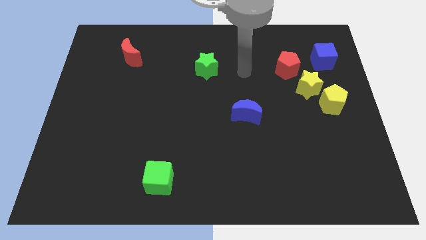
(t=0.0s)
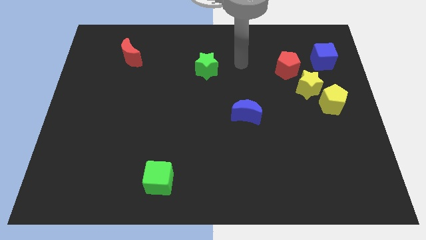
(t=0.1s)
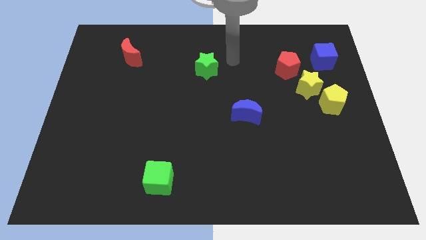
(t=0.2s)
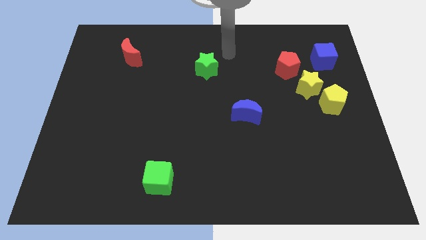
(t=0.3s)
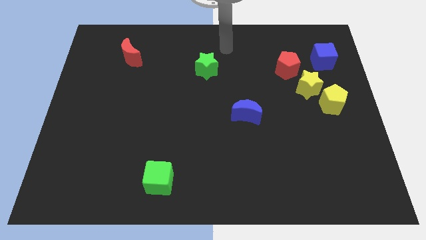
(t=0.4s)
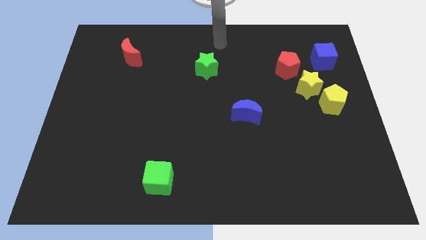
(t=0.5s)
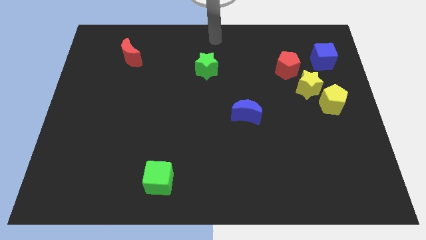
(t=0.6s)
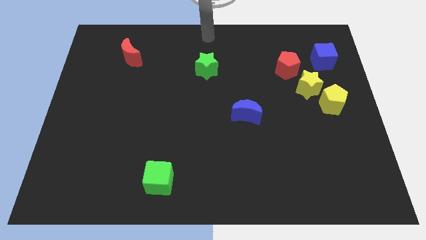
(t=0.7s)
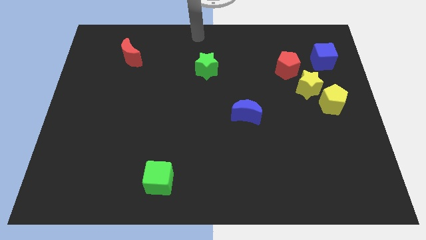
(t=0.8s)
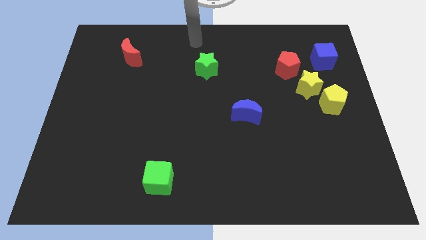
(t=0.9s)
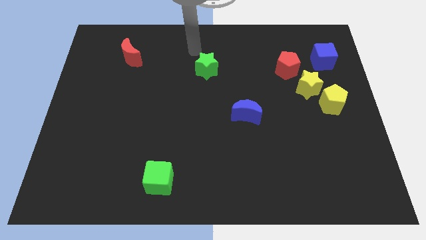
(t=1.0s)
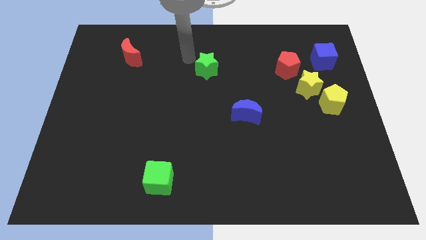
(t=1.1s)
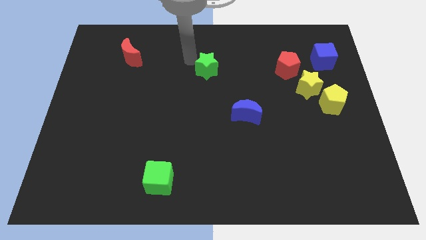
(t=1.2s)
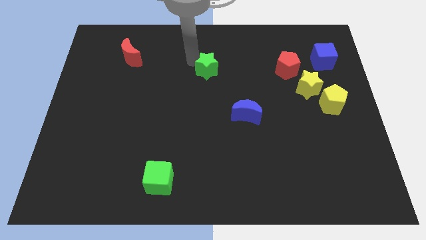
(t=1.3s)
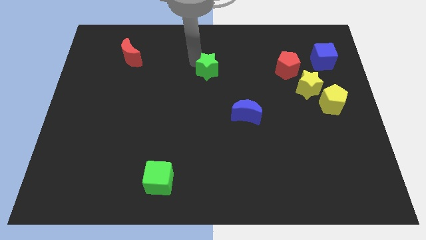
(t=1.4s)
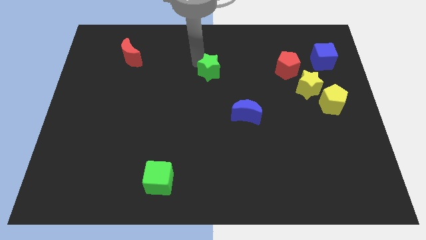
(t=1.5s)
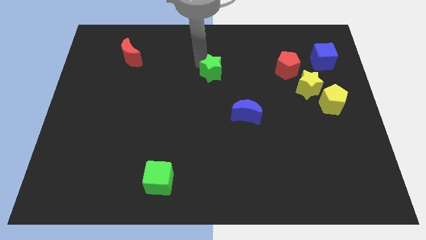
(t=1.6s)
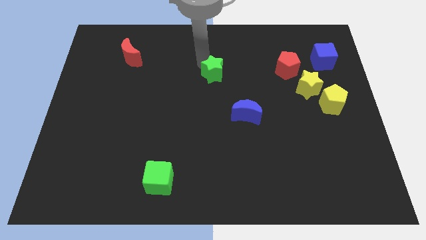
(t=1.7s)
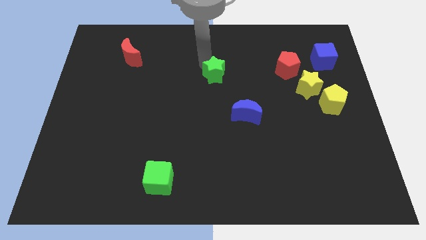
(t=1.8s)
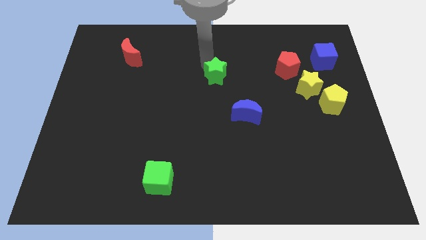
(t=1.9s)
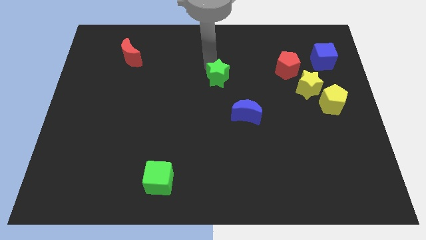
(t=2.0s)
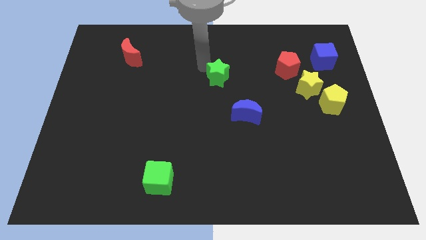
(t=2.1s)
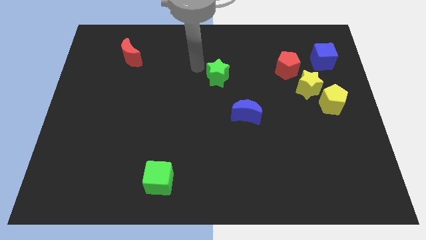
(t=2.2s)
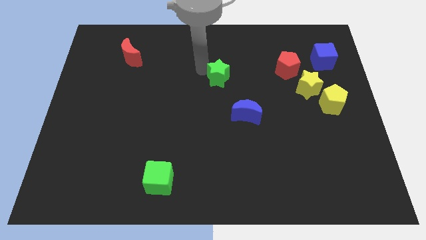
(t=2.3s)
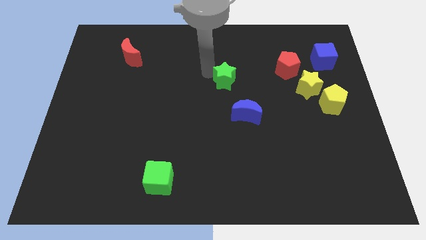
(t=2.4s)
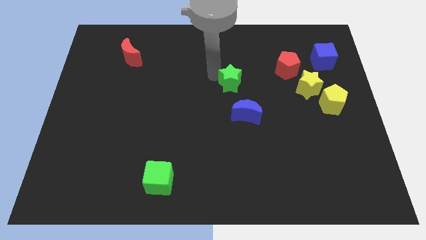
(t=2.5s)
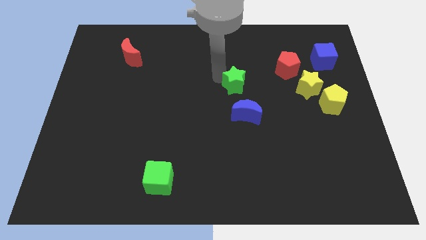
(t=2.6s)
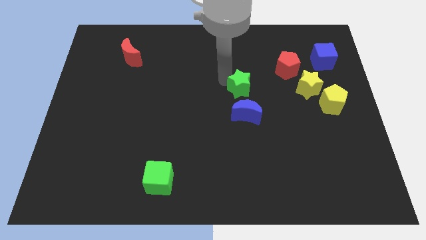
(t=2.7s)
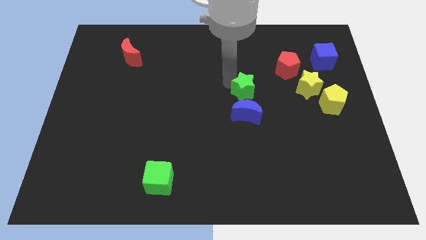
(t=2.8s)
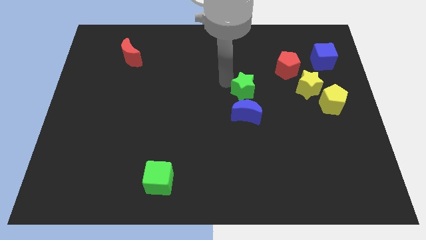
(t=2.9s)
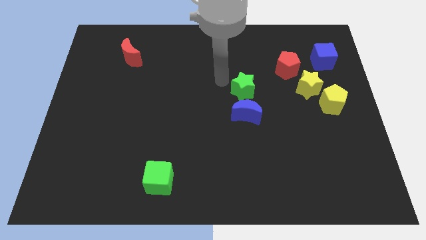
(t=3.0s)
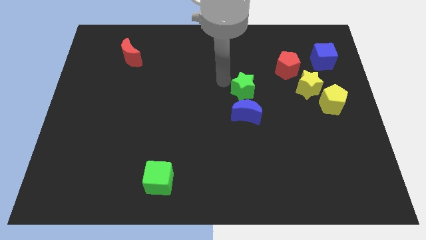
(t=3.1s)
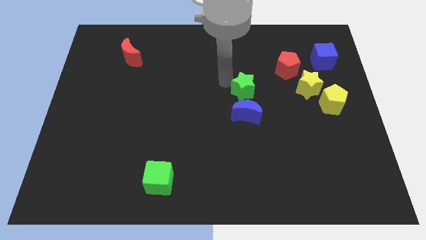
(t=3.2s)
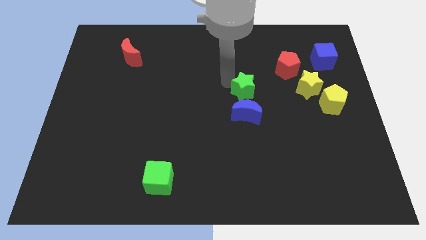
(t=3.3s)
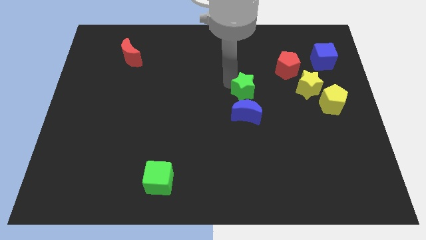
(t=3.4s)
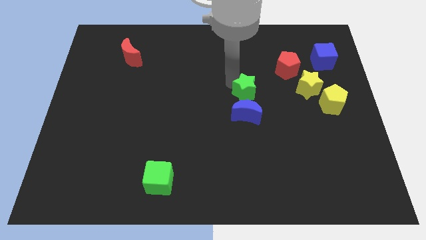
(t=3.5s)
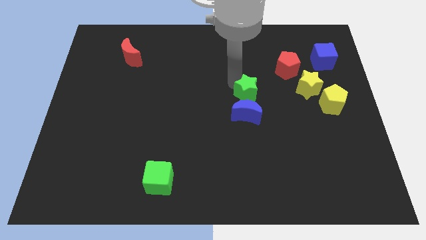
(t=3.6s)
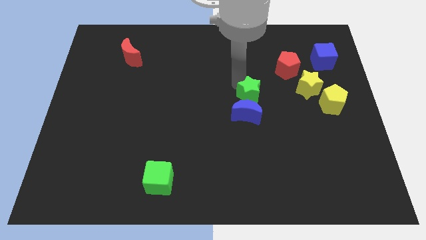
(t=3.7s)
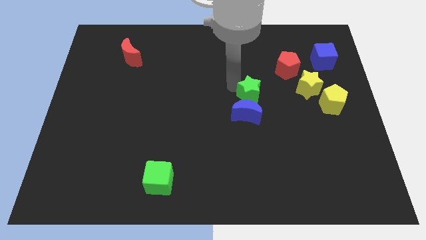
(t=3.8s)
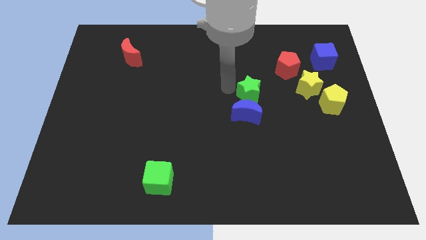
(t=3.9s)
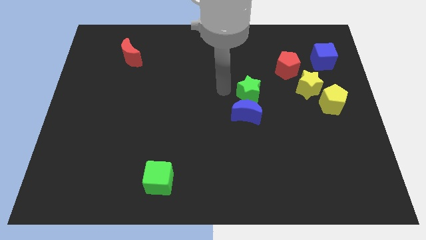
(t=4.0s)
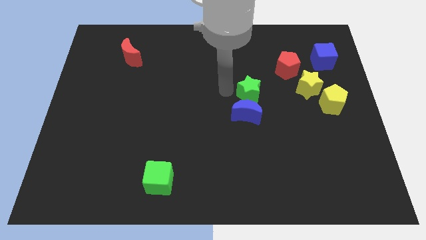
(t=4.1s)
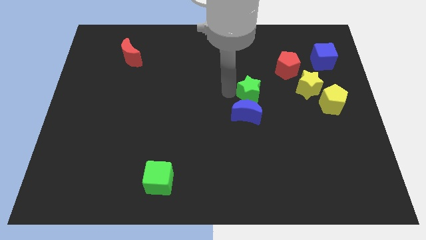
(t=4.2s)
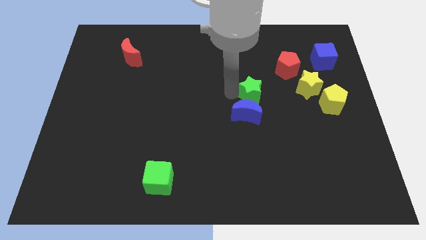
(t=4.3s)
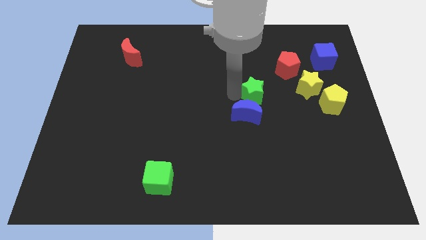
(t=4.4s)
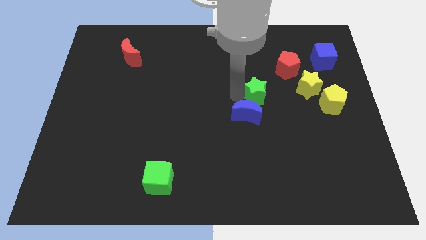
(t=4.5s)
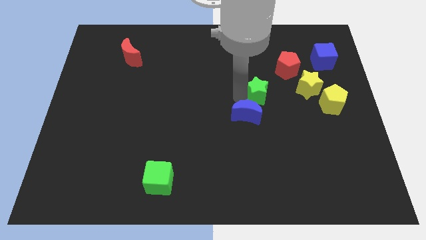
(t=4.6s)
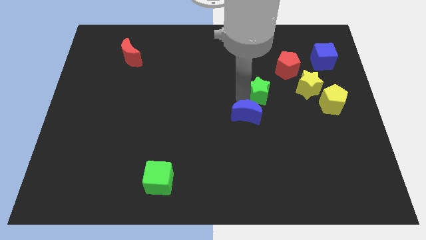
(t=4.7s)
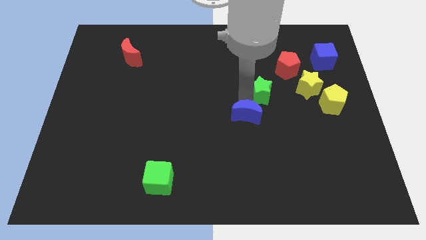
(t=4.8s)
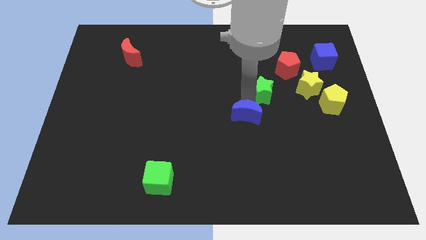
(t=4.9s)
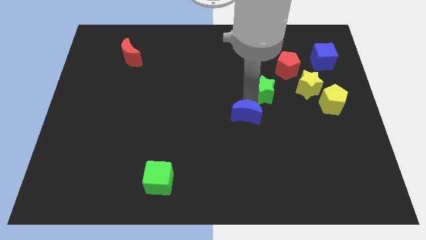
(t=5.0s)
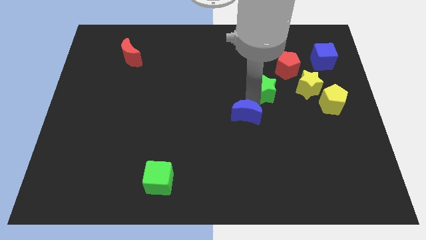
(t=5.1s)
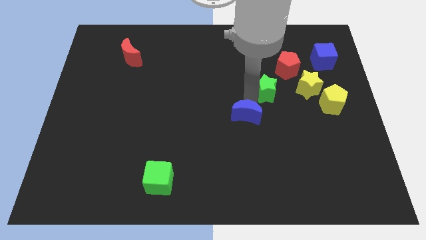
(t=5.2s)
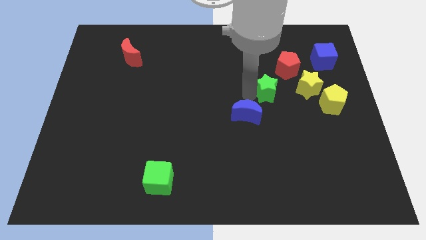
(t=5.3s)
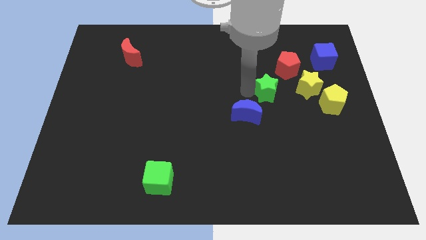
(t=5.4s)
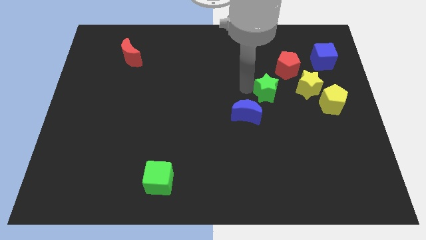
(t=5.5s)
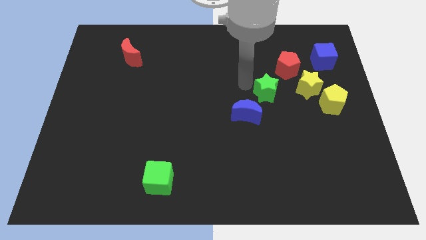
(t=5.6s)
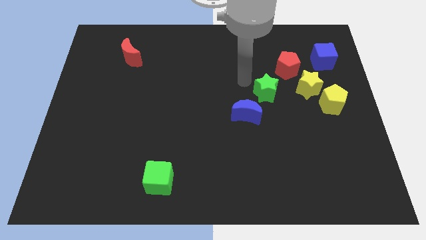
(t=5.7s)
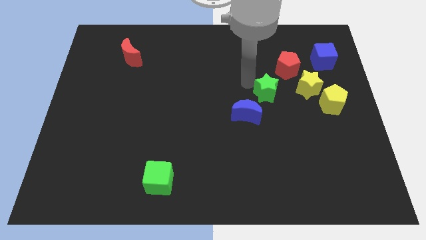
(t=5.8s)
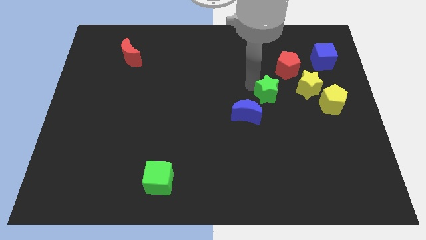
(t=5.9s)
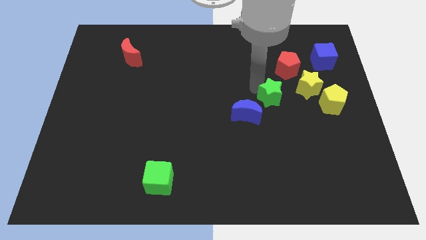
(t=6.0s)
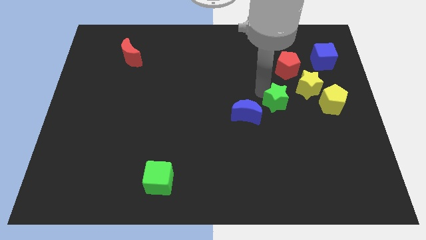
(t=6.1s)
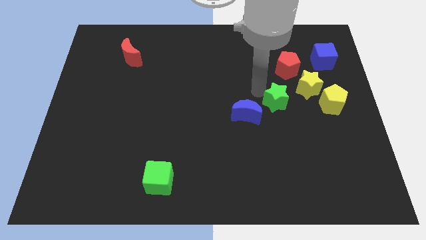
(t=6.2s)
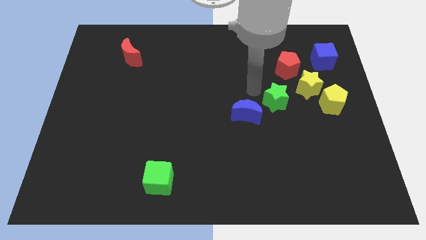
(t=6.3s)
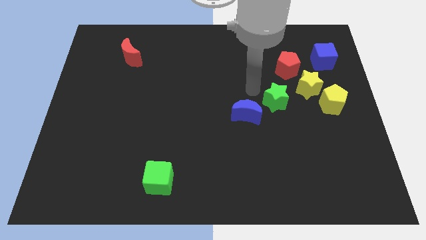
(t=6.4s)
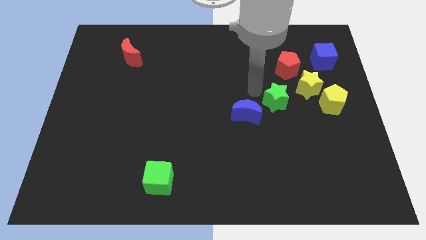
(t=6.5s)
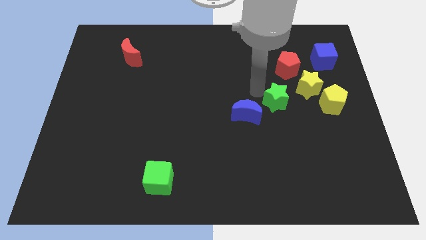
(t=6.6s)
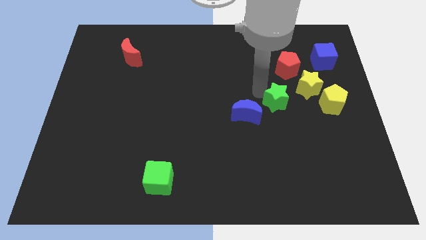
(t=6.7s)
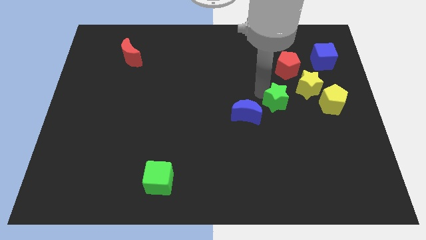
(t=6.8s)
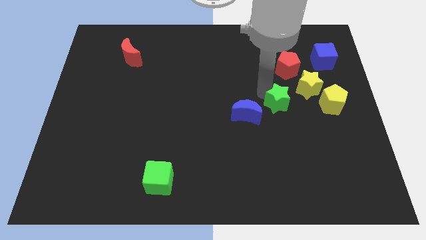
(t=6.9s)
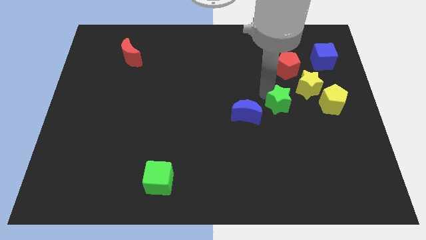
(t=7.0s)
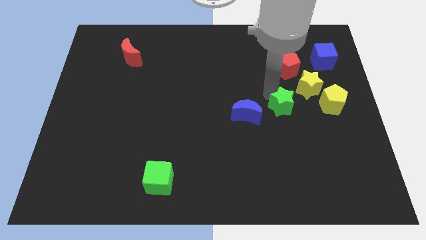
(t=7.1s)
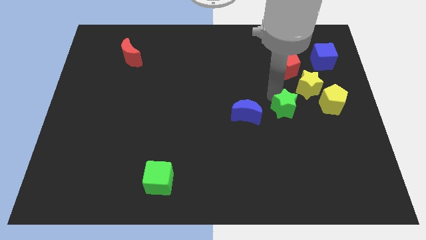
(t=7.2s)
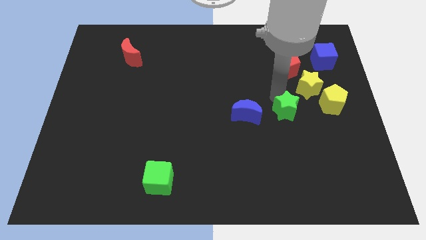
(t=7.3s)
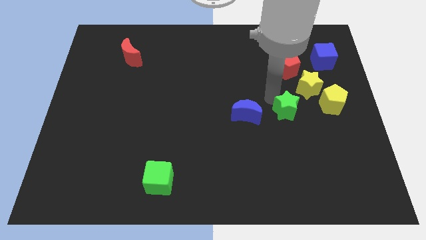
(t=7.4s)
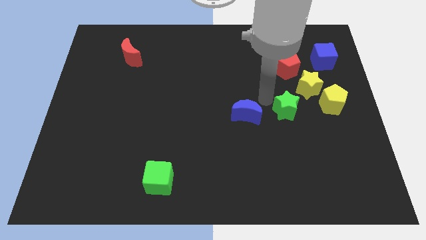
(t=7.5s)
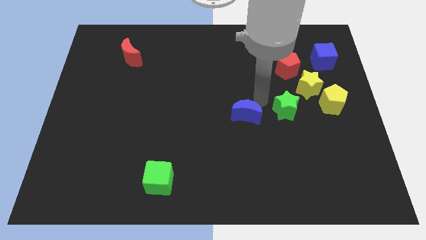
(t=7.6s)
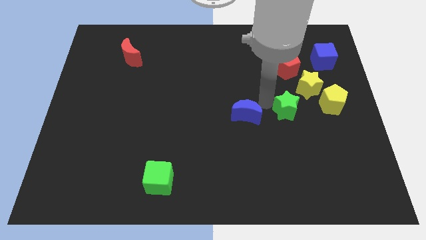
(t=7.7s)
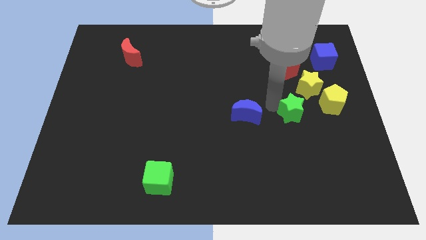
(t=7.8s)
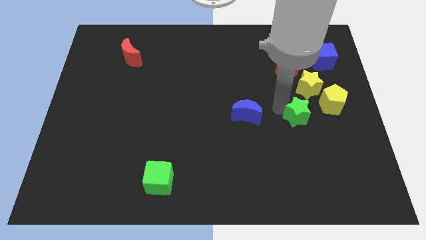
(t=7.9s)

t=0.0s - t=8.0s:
move the green star to the bottom left of the yellow pentagon
